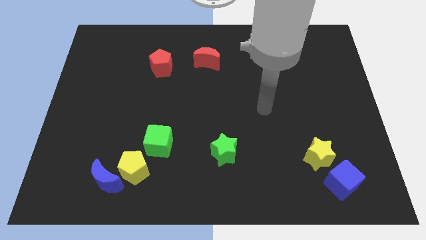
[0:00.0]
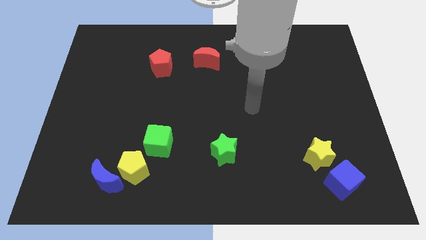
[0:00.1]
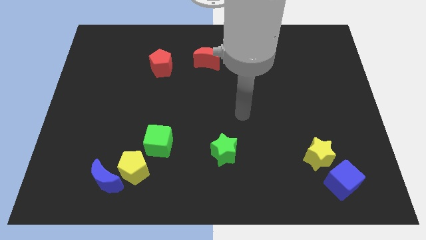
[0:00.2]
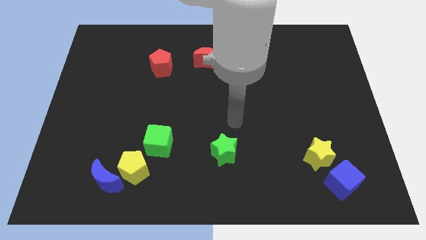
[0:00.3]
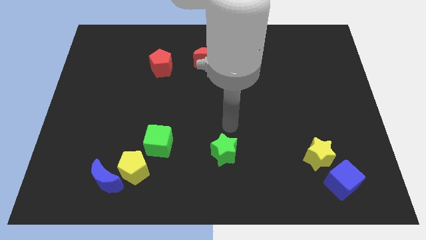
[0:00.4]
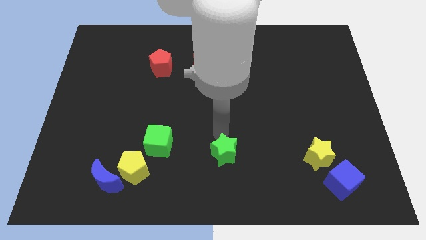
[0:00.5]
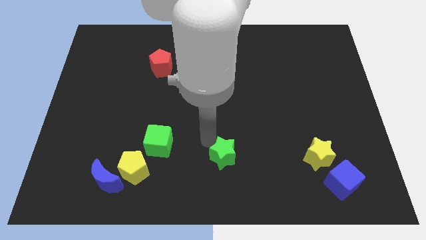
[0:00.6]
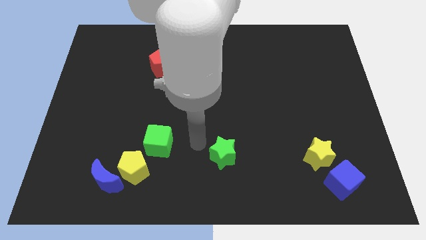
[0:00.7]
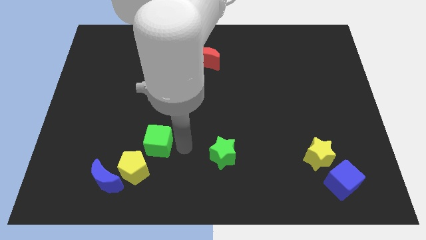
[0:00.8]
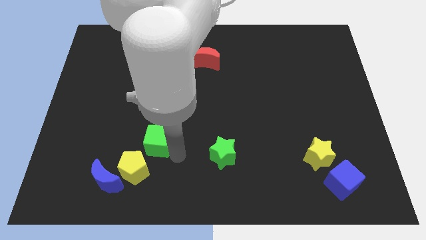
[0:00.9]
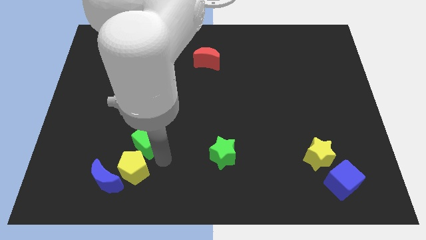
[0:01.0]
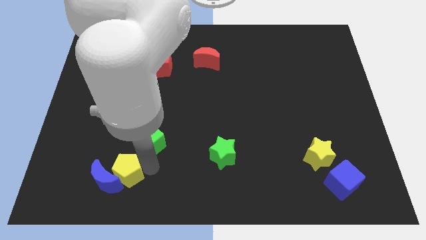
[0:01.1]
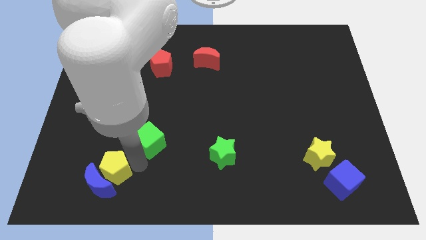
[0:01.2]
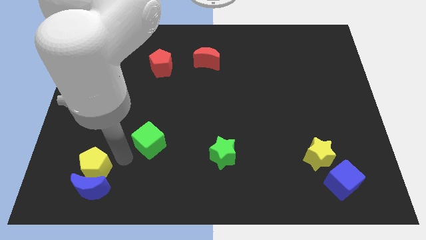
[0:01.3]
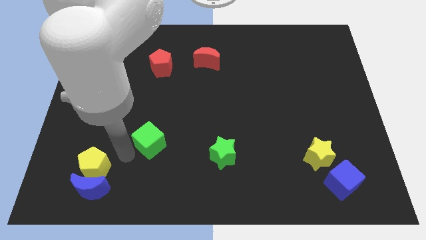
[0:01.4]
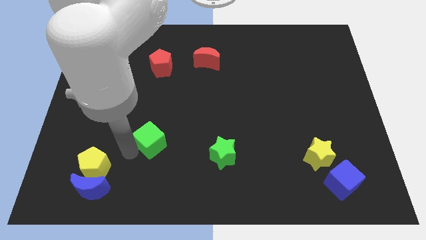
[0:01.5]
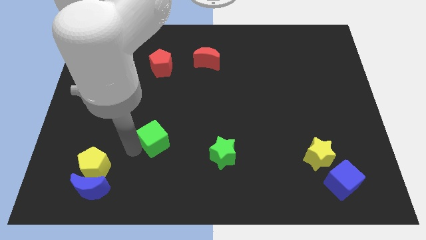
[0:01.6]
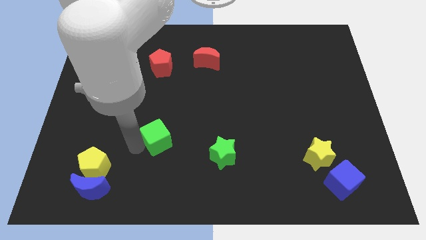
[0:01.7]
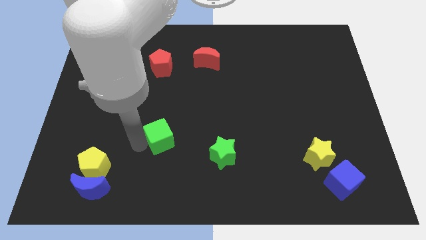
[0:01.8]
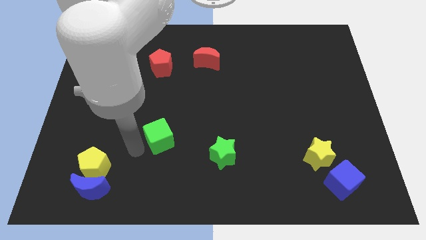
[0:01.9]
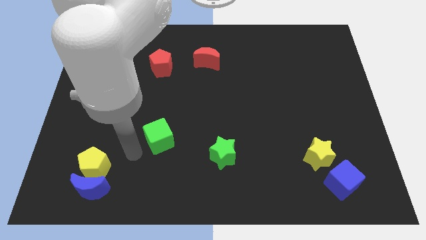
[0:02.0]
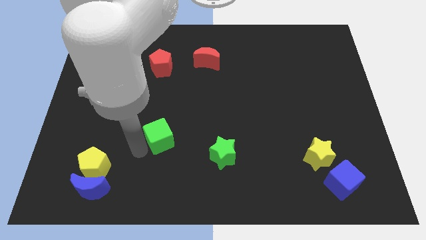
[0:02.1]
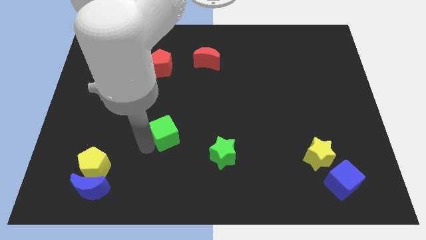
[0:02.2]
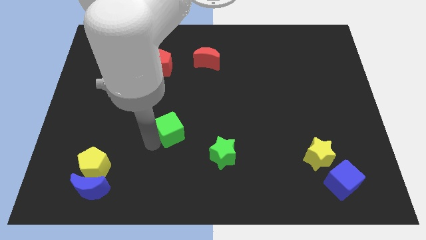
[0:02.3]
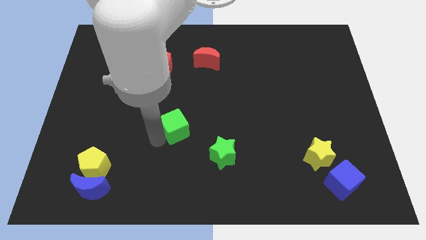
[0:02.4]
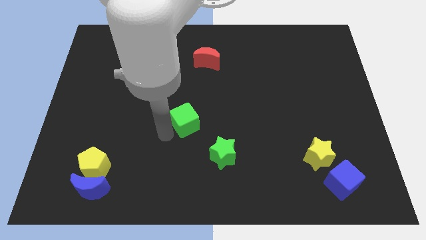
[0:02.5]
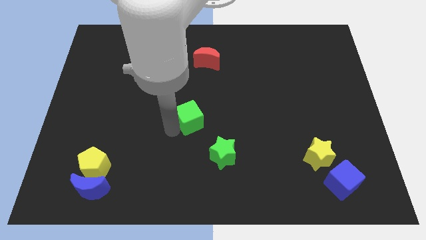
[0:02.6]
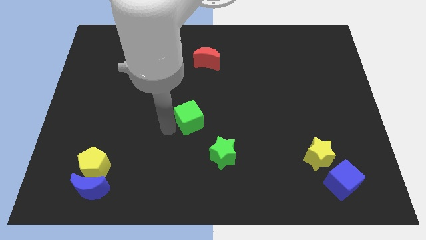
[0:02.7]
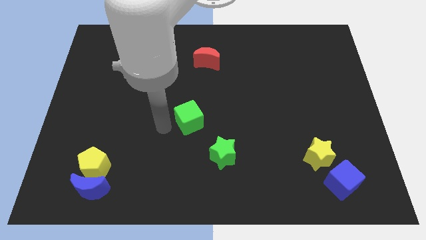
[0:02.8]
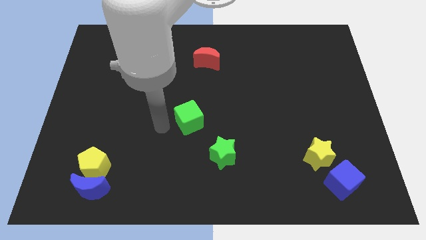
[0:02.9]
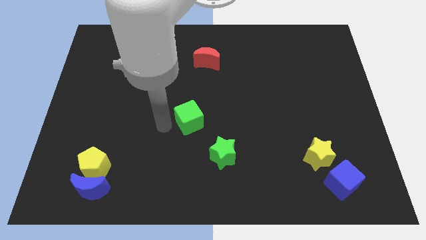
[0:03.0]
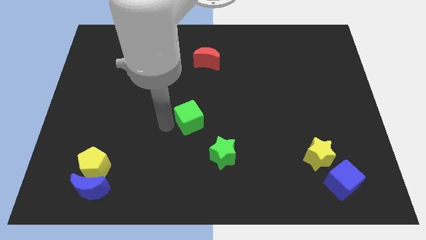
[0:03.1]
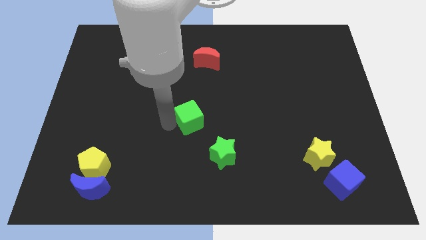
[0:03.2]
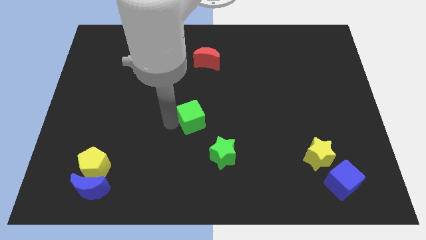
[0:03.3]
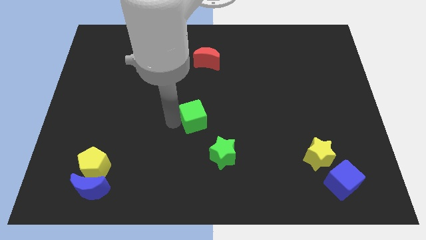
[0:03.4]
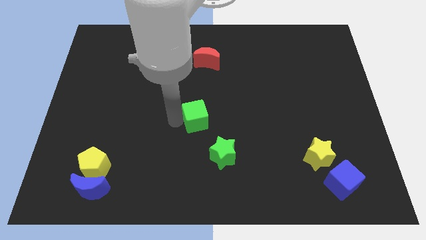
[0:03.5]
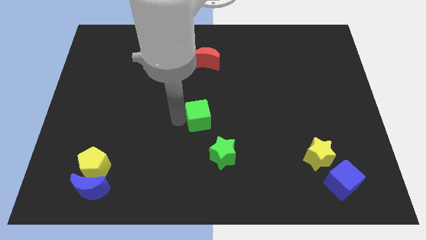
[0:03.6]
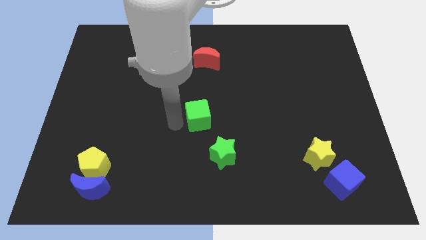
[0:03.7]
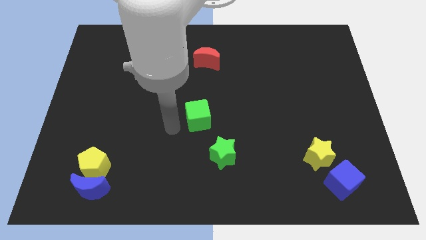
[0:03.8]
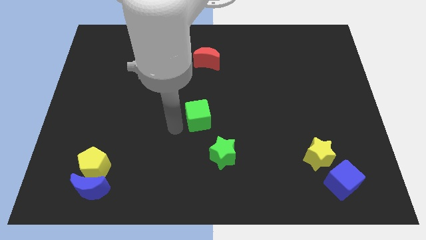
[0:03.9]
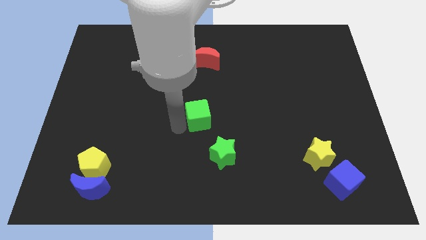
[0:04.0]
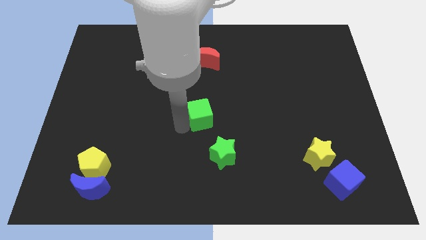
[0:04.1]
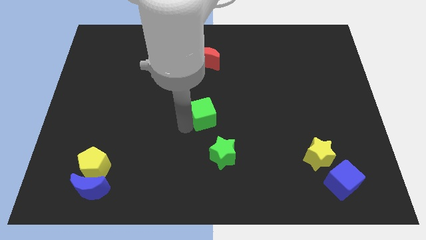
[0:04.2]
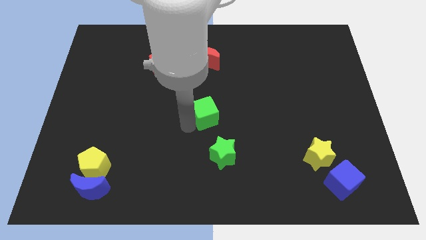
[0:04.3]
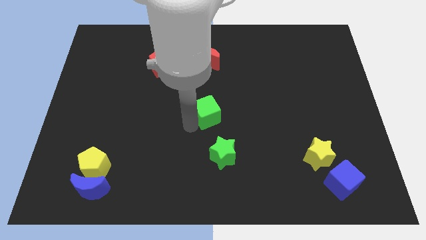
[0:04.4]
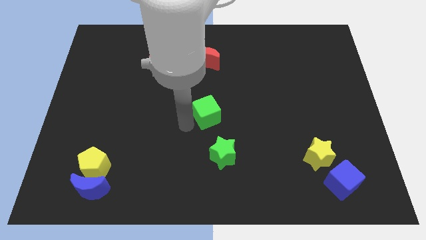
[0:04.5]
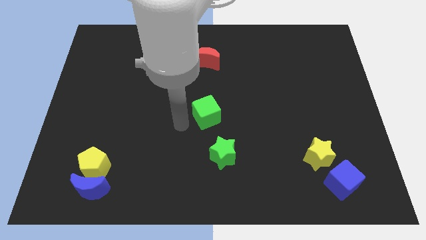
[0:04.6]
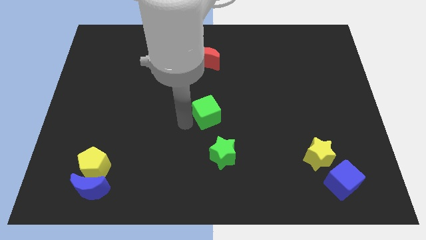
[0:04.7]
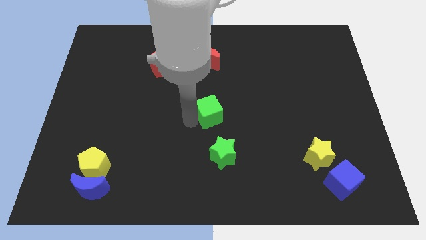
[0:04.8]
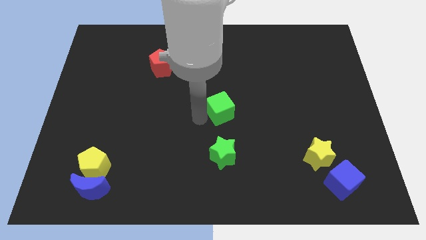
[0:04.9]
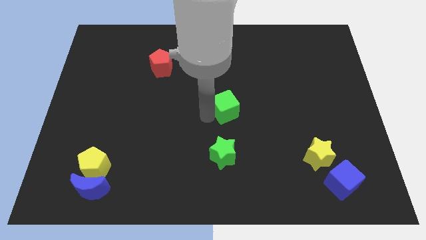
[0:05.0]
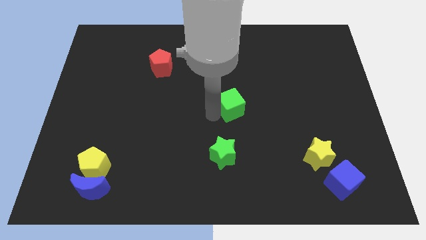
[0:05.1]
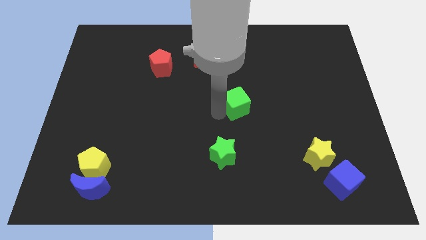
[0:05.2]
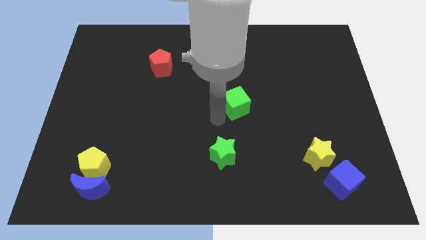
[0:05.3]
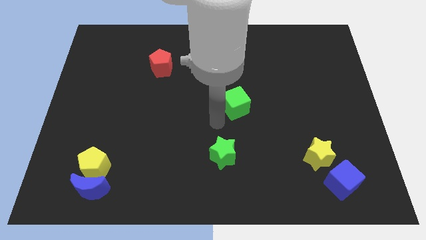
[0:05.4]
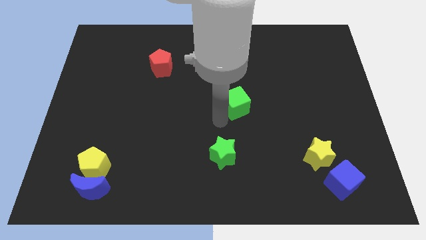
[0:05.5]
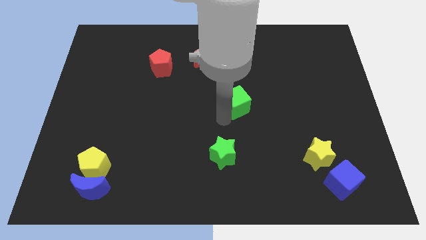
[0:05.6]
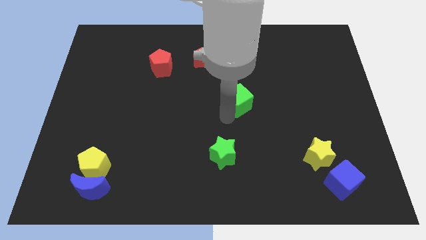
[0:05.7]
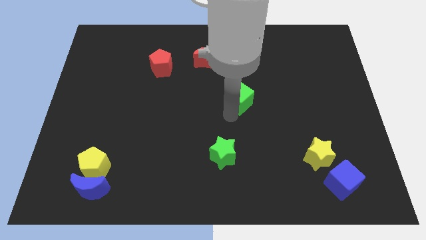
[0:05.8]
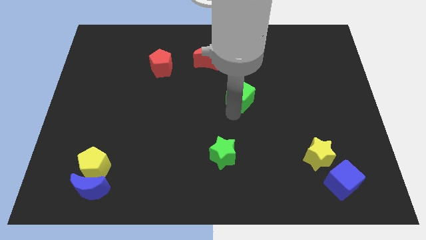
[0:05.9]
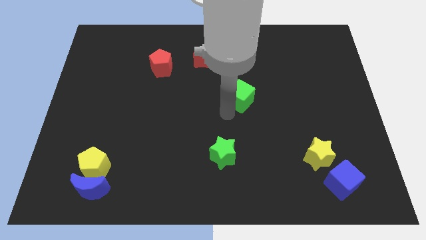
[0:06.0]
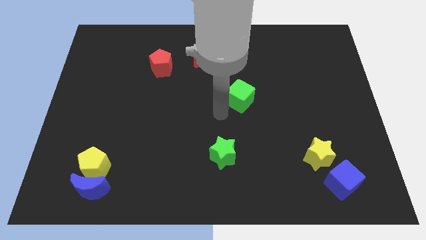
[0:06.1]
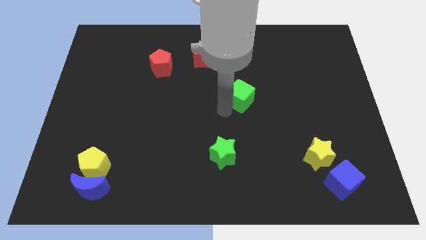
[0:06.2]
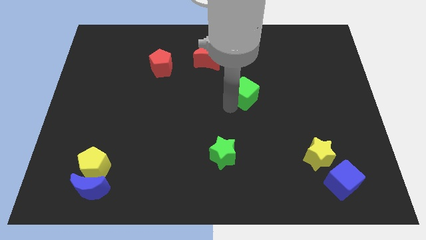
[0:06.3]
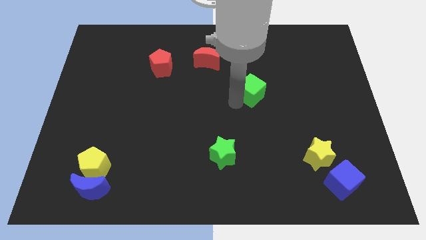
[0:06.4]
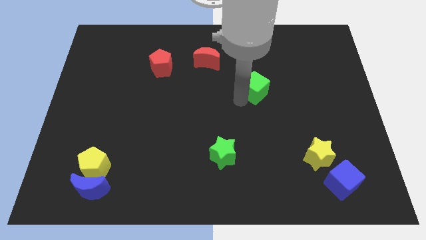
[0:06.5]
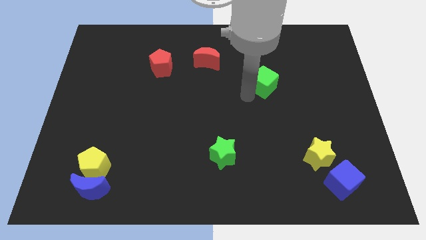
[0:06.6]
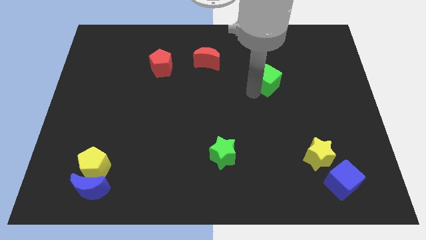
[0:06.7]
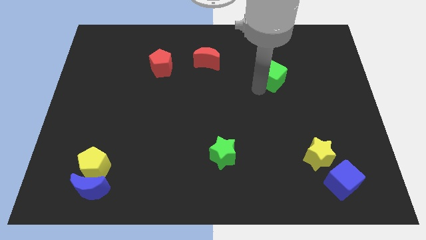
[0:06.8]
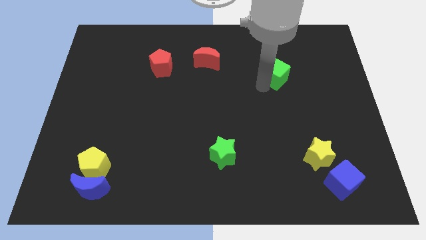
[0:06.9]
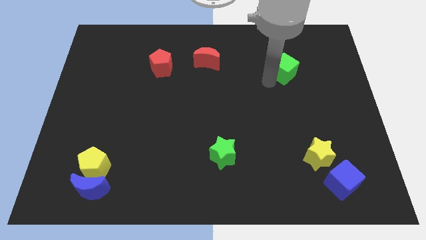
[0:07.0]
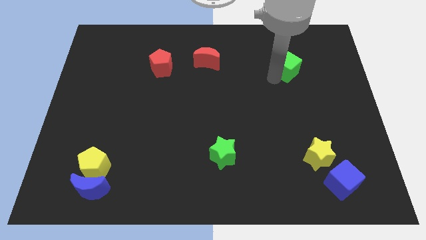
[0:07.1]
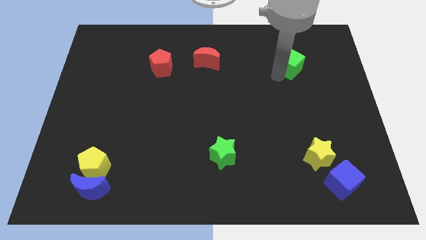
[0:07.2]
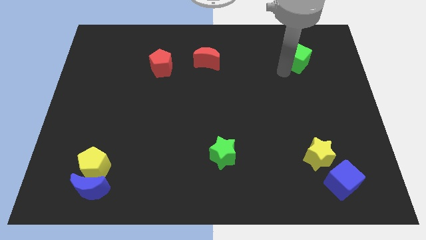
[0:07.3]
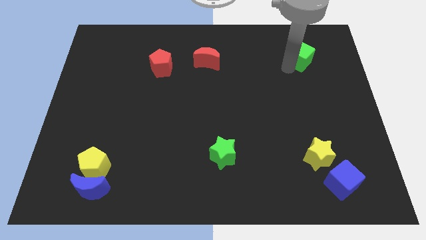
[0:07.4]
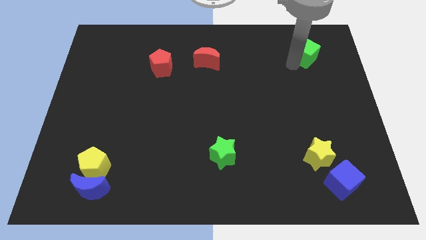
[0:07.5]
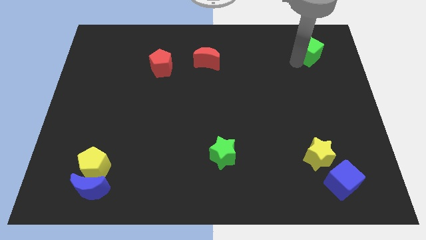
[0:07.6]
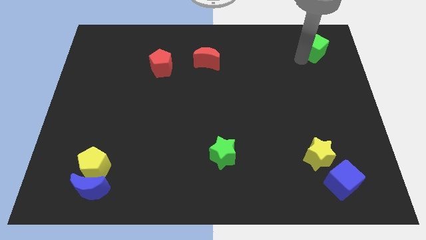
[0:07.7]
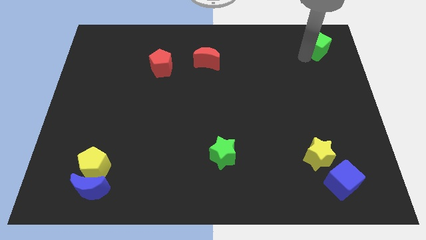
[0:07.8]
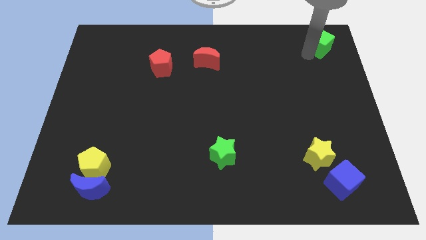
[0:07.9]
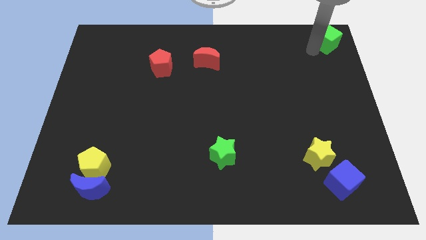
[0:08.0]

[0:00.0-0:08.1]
push the green cube to the top right of the board
